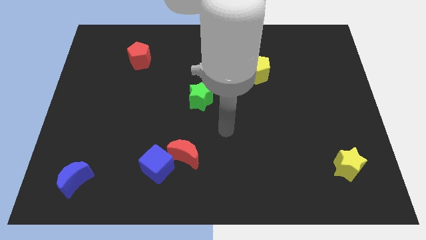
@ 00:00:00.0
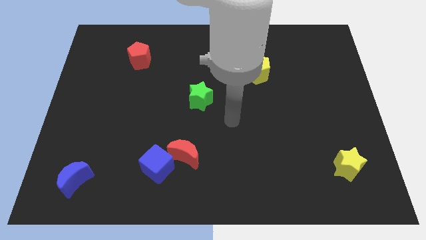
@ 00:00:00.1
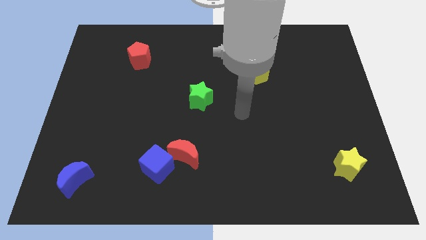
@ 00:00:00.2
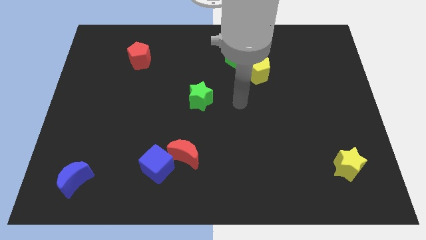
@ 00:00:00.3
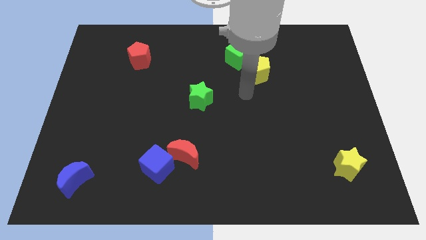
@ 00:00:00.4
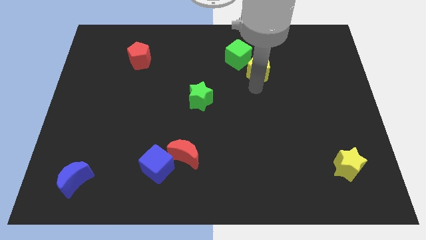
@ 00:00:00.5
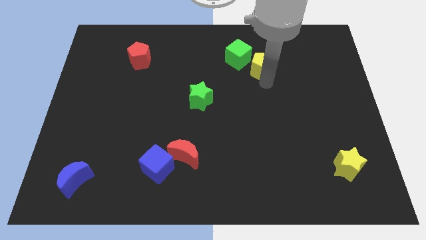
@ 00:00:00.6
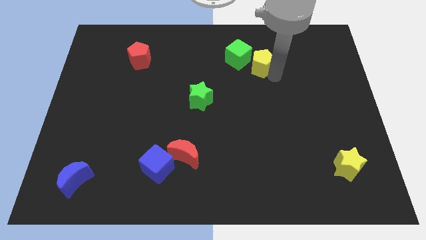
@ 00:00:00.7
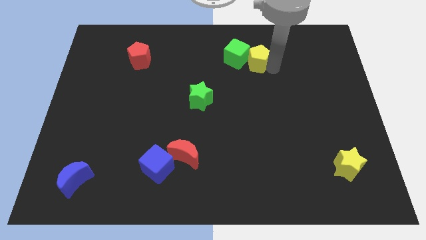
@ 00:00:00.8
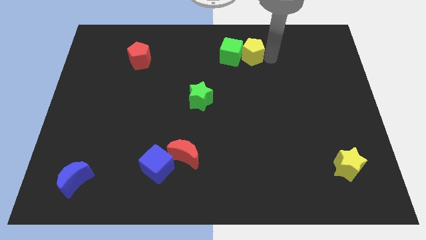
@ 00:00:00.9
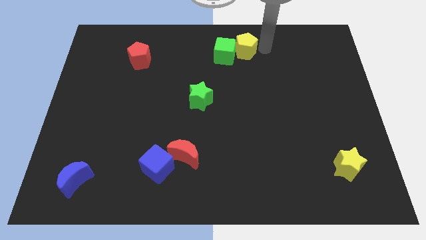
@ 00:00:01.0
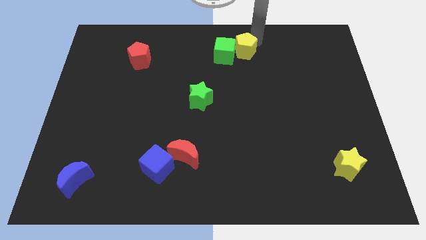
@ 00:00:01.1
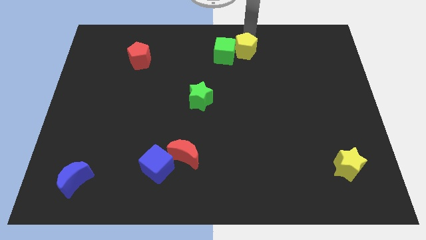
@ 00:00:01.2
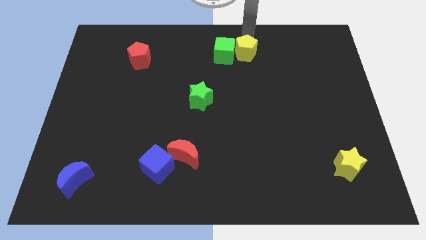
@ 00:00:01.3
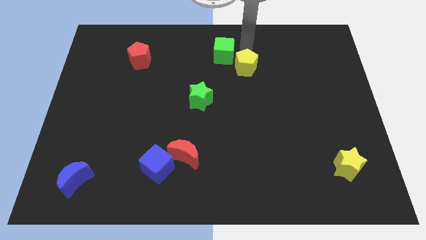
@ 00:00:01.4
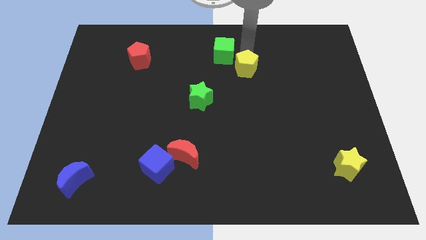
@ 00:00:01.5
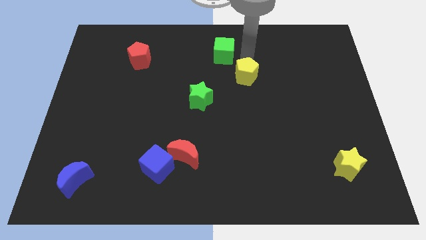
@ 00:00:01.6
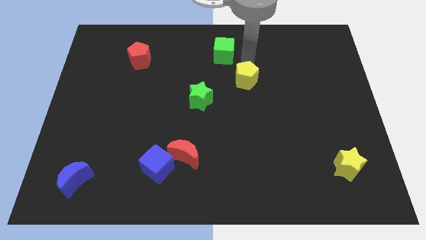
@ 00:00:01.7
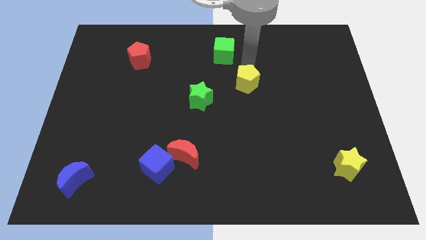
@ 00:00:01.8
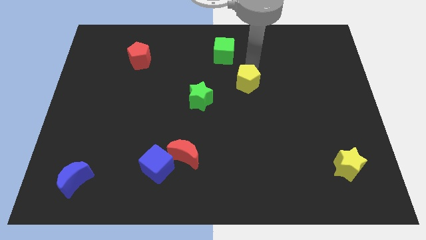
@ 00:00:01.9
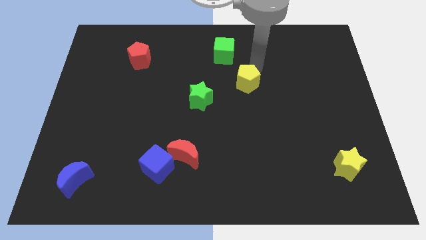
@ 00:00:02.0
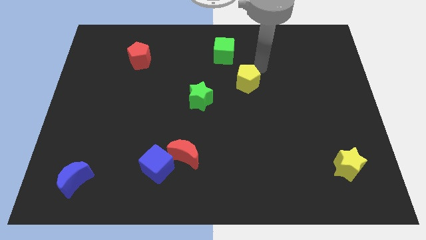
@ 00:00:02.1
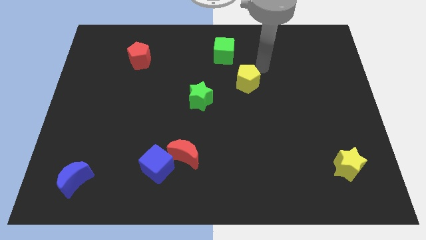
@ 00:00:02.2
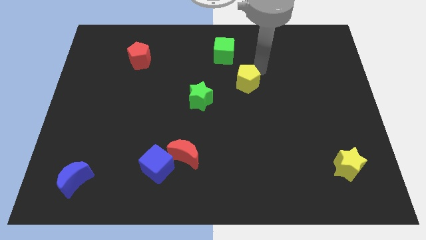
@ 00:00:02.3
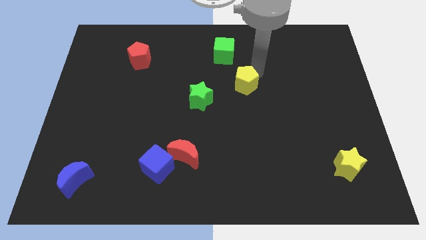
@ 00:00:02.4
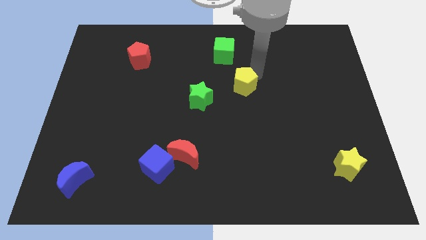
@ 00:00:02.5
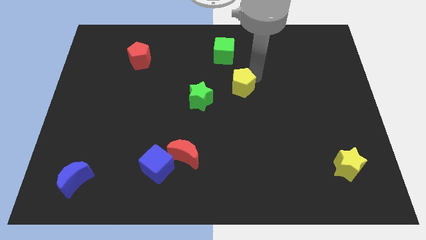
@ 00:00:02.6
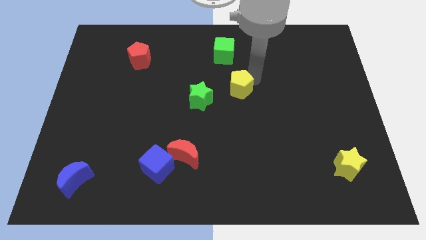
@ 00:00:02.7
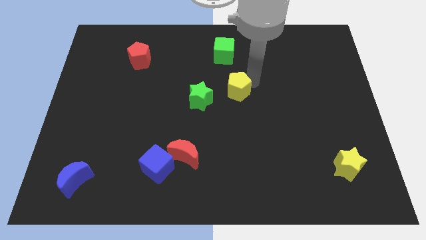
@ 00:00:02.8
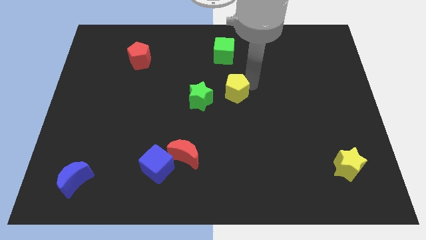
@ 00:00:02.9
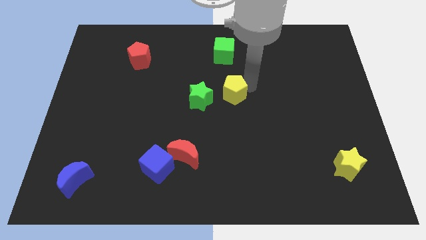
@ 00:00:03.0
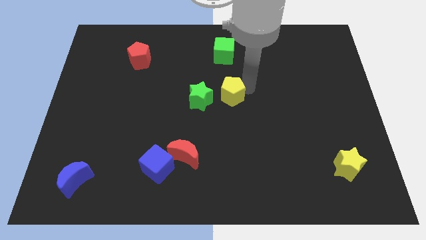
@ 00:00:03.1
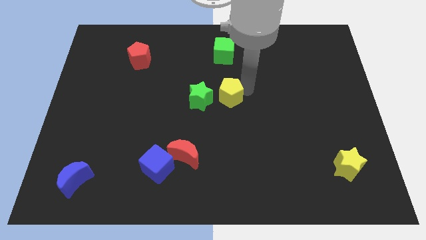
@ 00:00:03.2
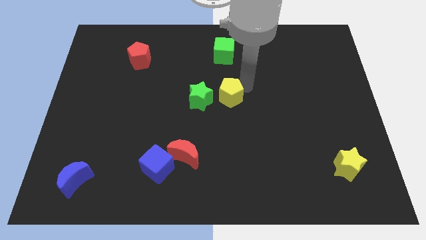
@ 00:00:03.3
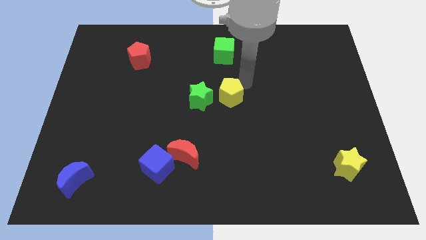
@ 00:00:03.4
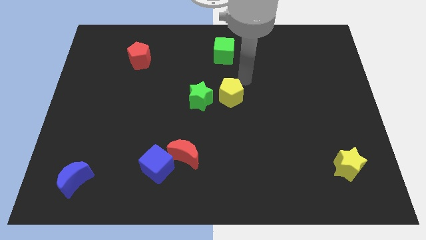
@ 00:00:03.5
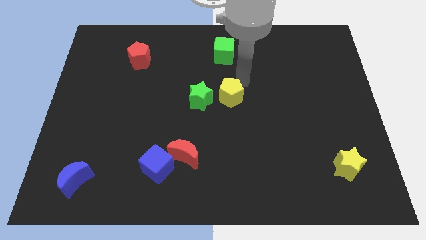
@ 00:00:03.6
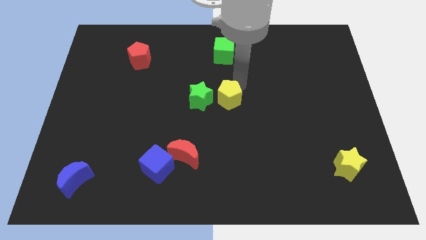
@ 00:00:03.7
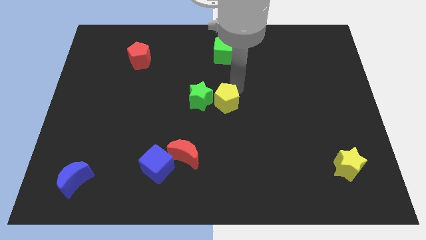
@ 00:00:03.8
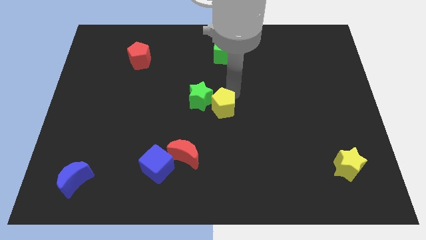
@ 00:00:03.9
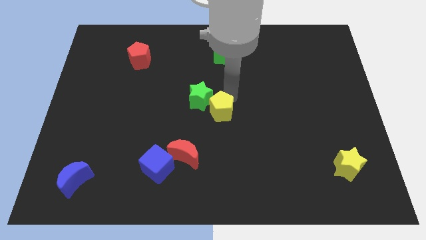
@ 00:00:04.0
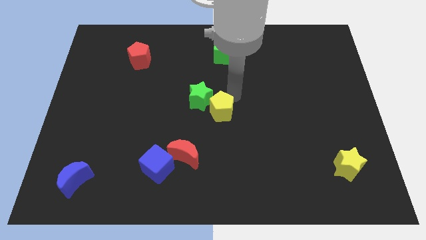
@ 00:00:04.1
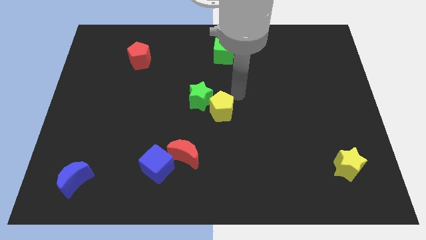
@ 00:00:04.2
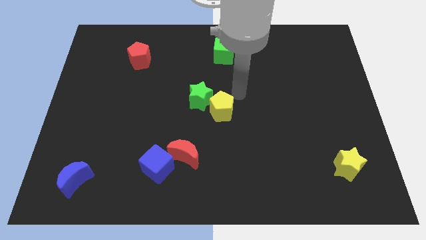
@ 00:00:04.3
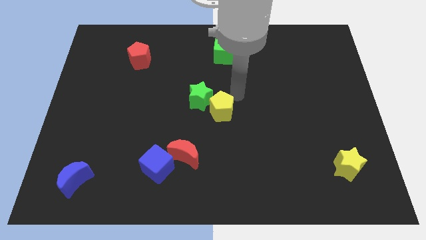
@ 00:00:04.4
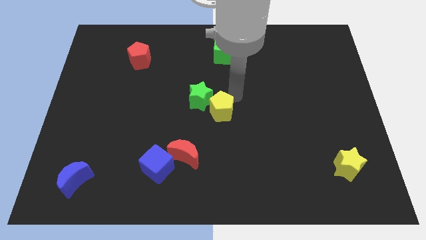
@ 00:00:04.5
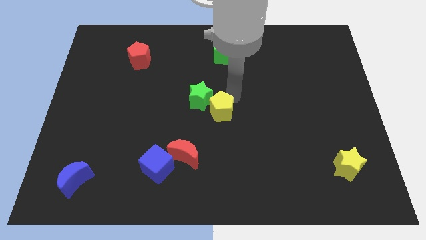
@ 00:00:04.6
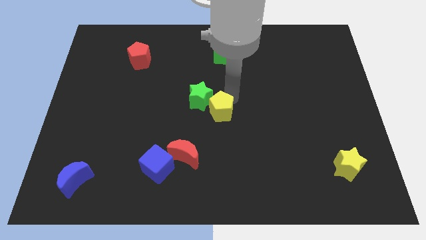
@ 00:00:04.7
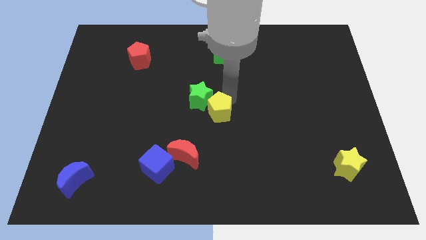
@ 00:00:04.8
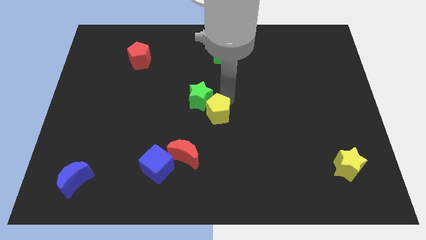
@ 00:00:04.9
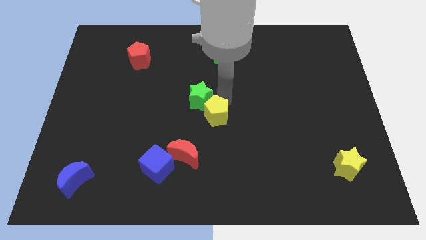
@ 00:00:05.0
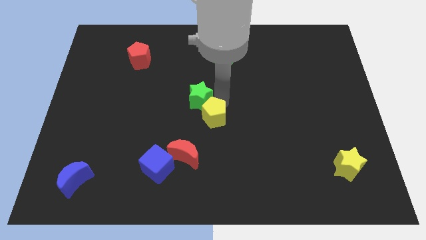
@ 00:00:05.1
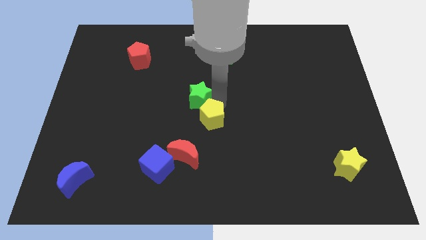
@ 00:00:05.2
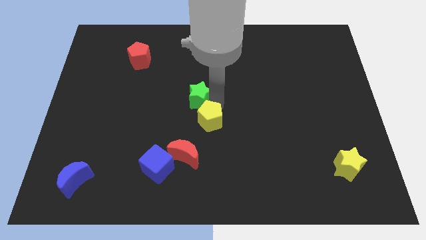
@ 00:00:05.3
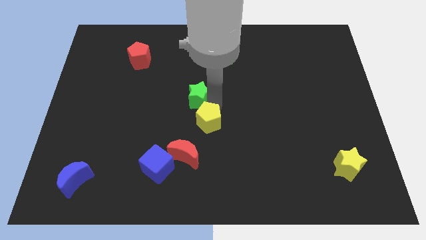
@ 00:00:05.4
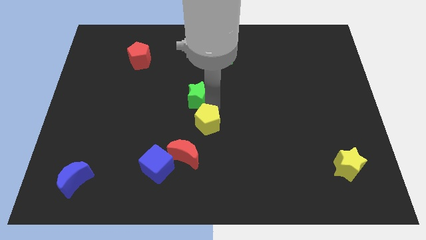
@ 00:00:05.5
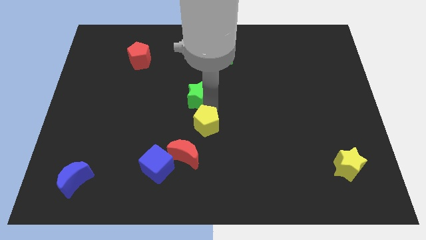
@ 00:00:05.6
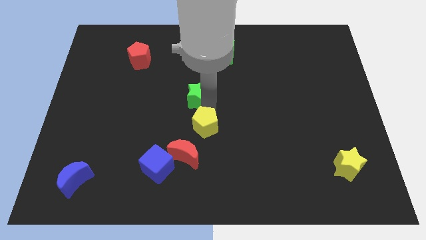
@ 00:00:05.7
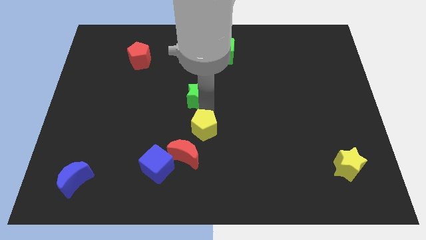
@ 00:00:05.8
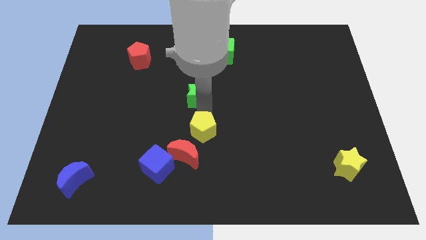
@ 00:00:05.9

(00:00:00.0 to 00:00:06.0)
put the yellow pentagon diagonally up and to the right of the blue cube
